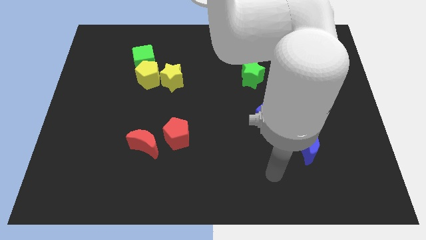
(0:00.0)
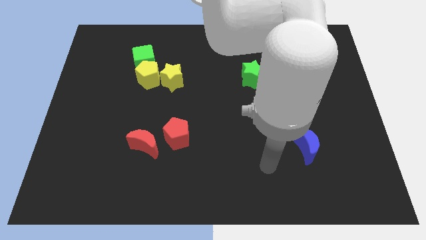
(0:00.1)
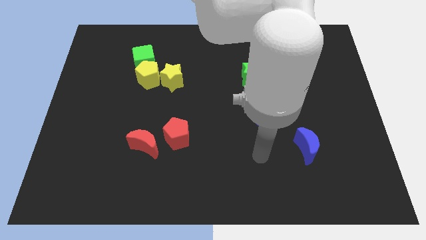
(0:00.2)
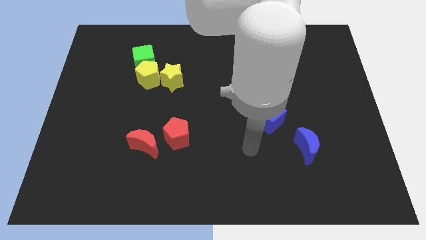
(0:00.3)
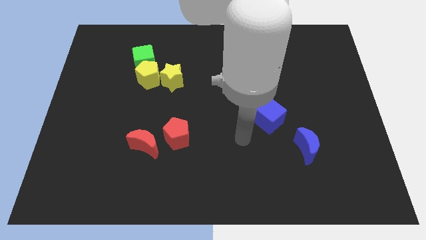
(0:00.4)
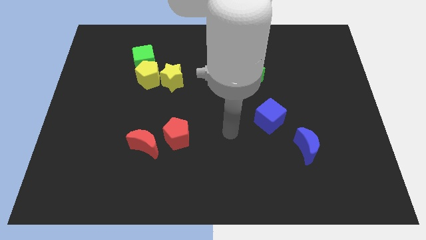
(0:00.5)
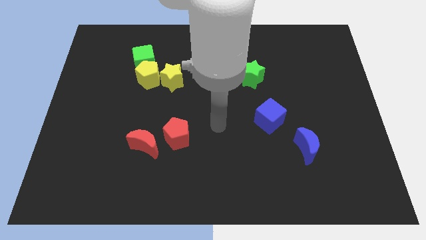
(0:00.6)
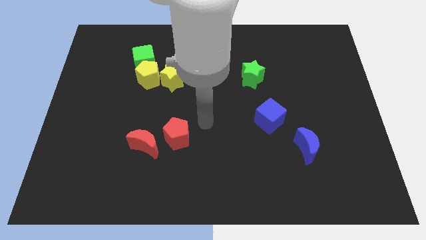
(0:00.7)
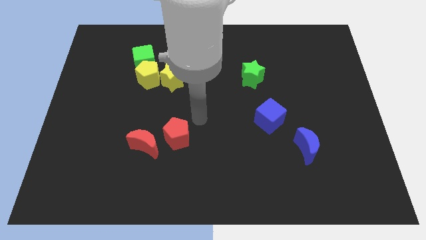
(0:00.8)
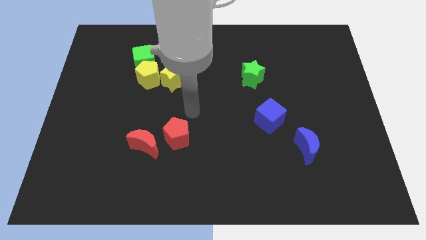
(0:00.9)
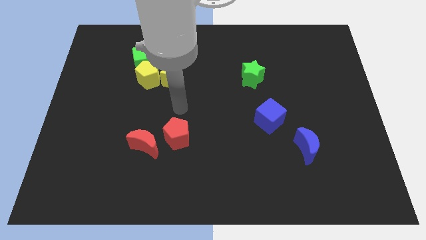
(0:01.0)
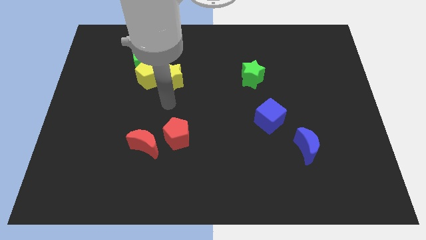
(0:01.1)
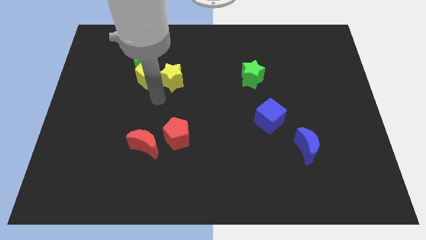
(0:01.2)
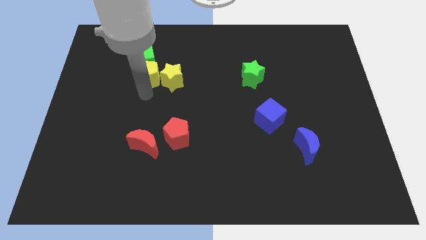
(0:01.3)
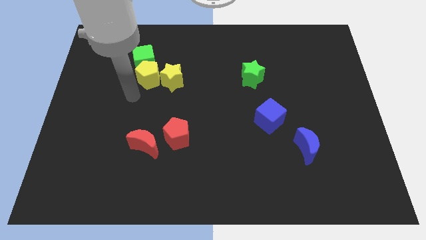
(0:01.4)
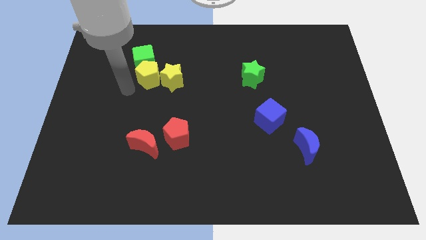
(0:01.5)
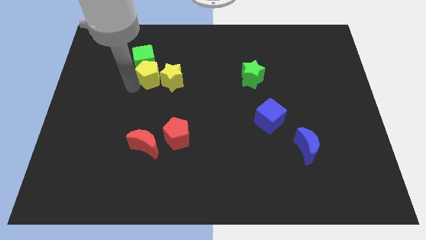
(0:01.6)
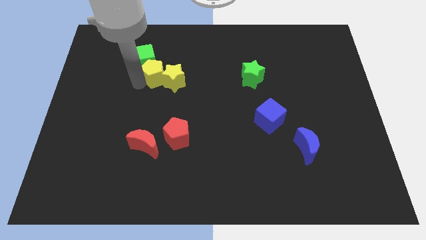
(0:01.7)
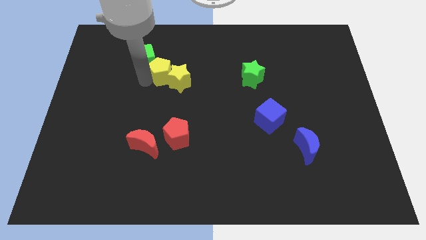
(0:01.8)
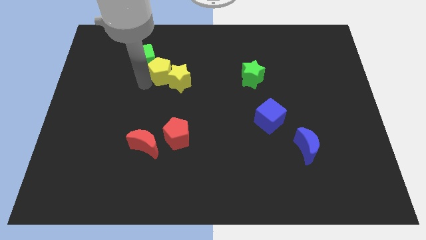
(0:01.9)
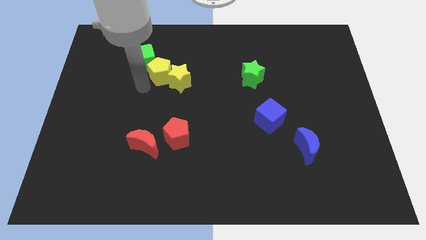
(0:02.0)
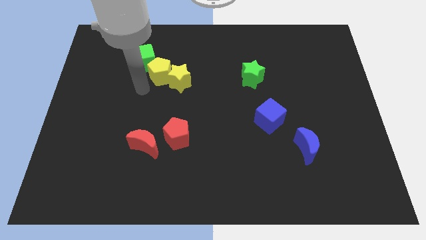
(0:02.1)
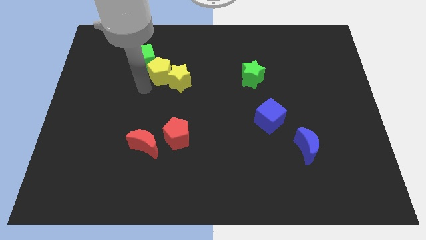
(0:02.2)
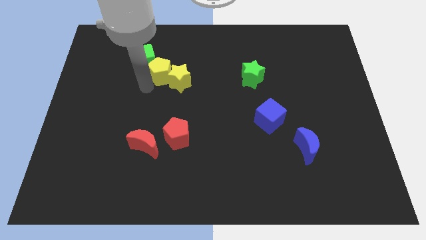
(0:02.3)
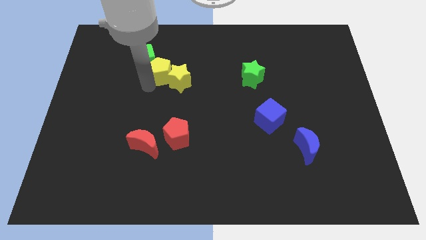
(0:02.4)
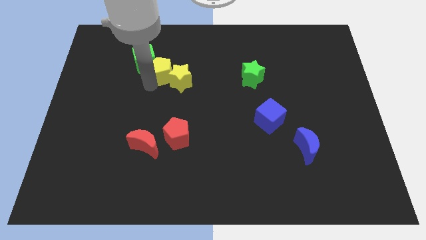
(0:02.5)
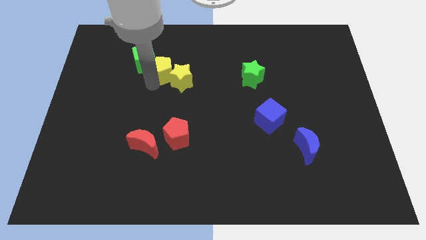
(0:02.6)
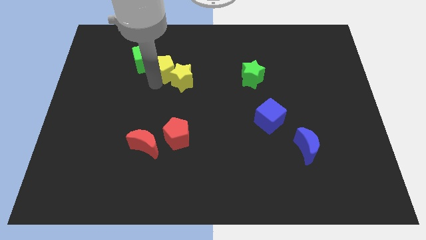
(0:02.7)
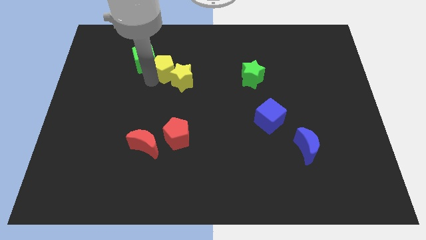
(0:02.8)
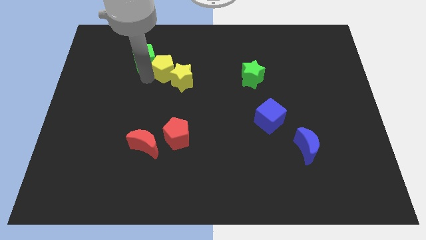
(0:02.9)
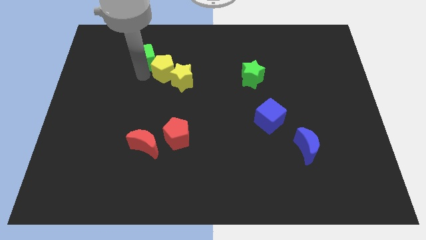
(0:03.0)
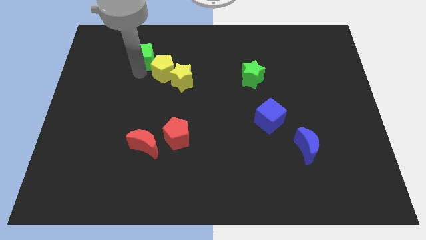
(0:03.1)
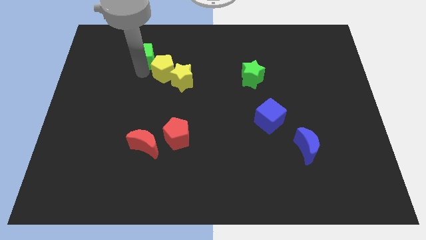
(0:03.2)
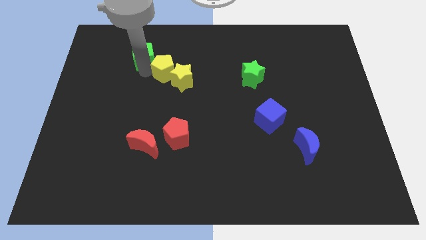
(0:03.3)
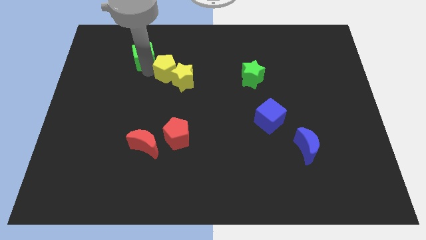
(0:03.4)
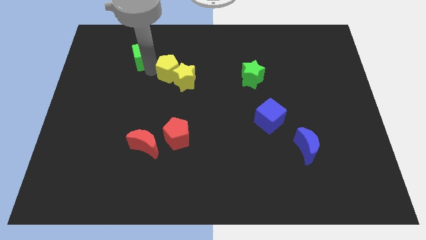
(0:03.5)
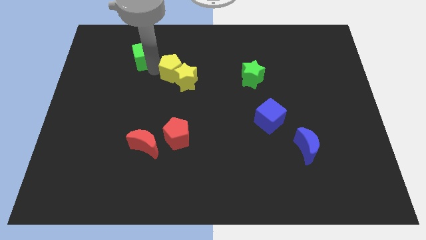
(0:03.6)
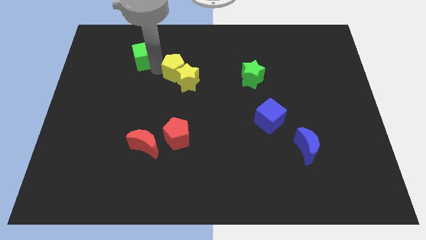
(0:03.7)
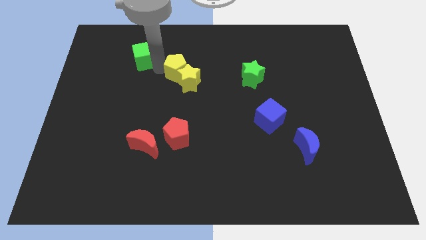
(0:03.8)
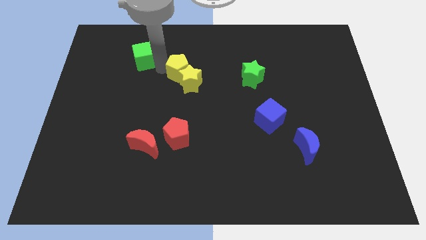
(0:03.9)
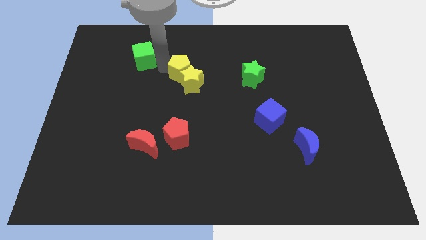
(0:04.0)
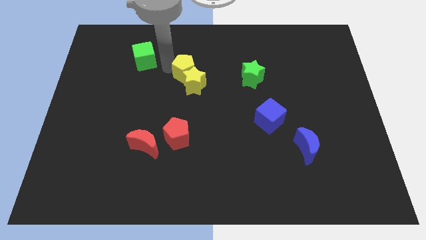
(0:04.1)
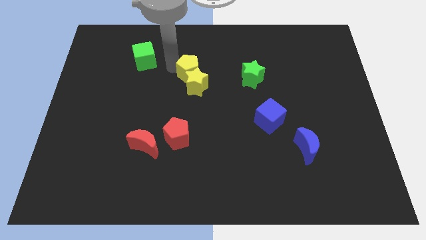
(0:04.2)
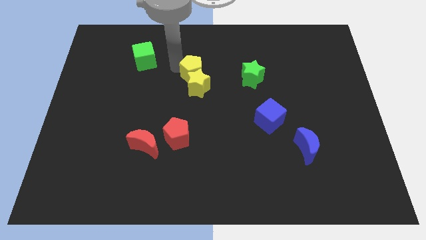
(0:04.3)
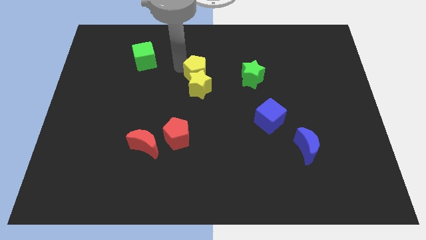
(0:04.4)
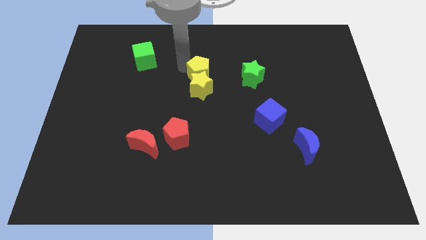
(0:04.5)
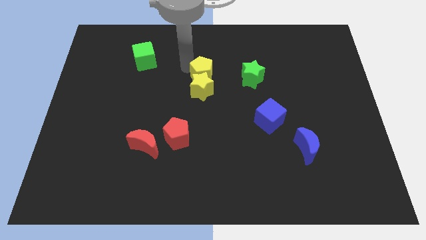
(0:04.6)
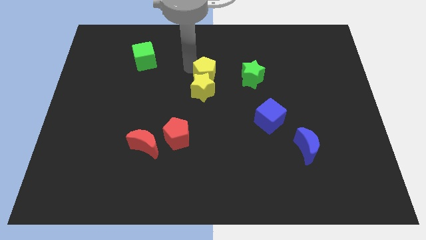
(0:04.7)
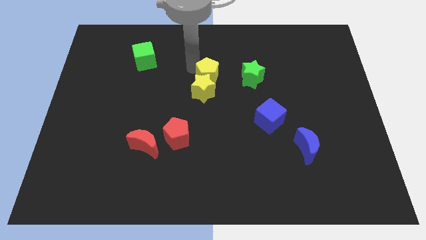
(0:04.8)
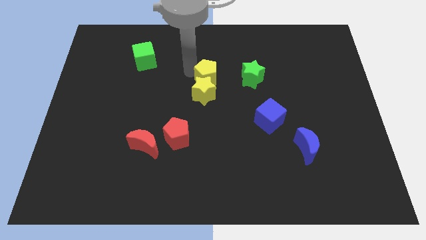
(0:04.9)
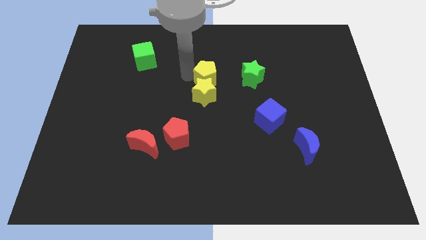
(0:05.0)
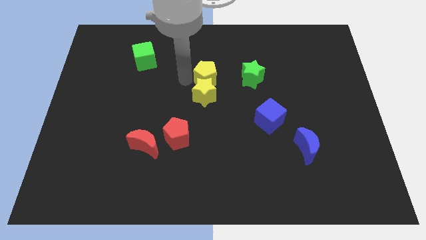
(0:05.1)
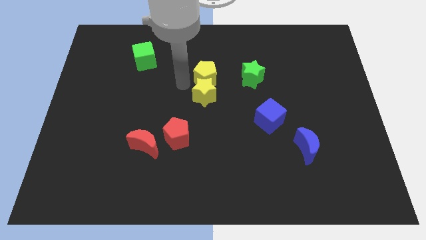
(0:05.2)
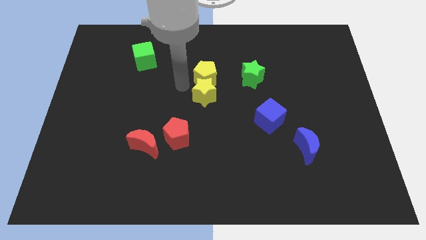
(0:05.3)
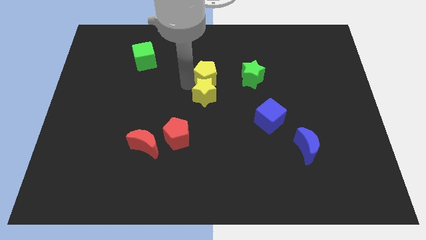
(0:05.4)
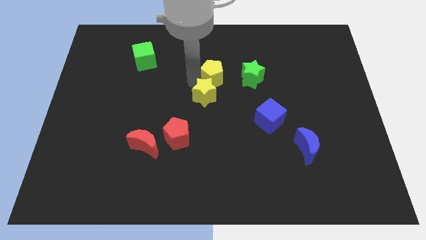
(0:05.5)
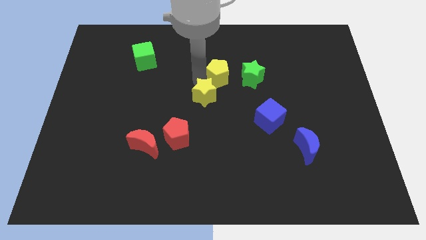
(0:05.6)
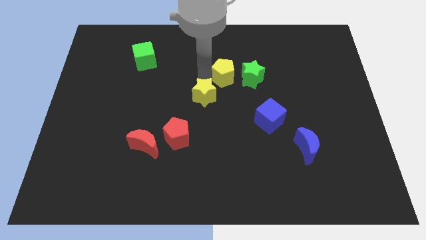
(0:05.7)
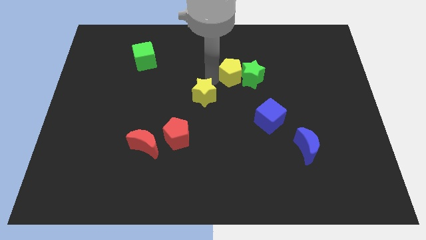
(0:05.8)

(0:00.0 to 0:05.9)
move the yellow pentagon to the right

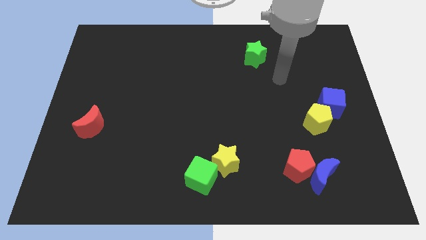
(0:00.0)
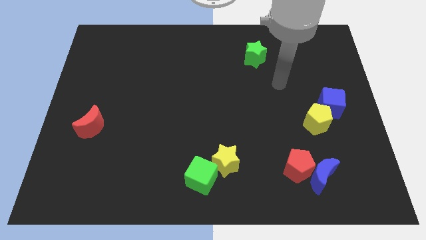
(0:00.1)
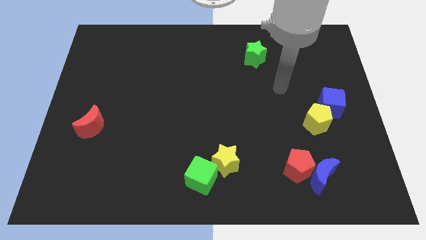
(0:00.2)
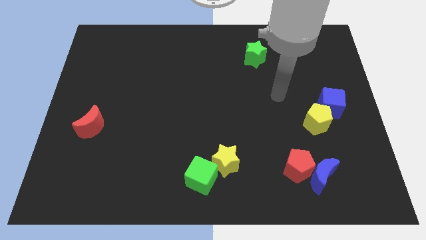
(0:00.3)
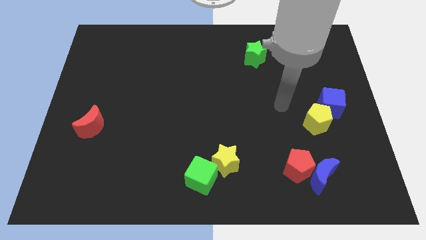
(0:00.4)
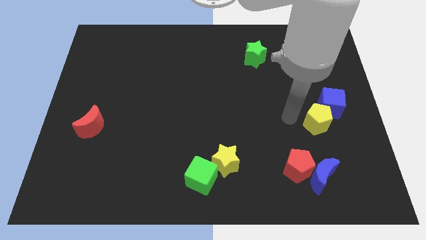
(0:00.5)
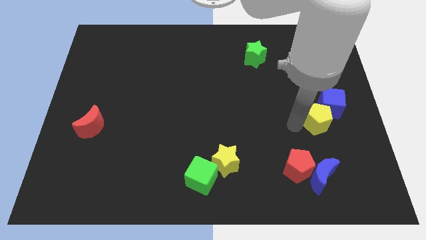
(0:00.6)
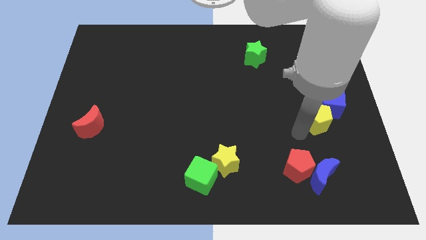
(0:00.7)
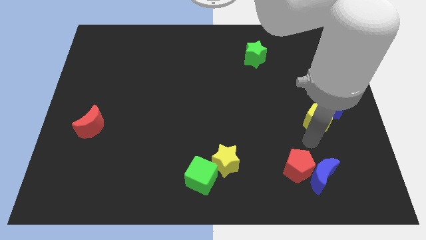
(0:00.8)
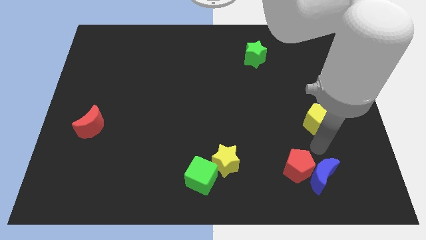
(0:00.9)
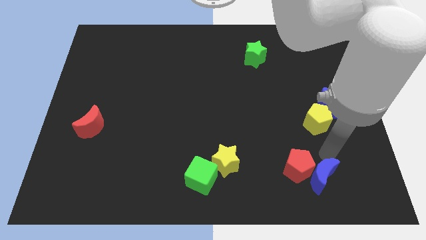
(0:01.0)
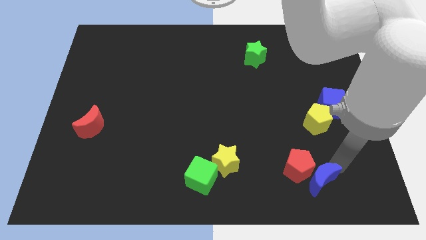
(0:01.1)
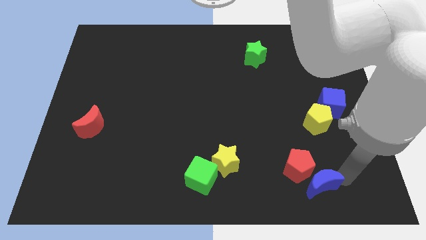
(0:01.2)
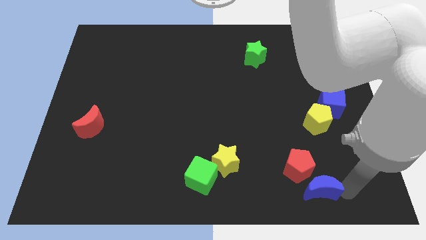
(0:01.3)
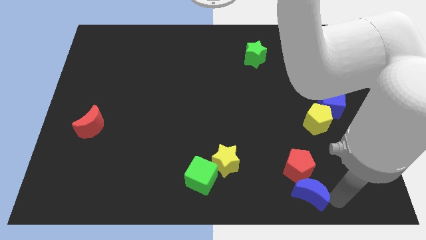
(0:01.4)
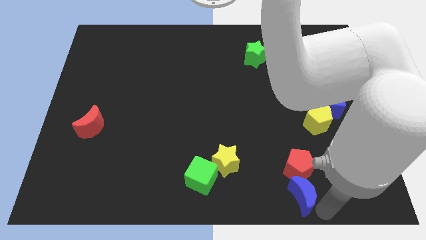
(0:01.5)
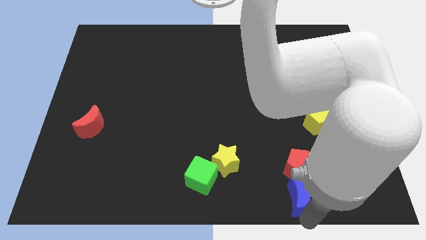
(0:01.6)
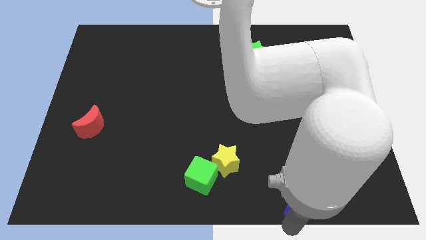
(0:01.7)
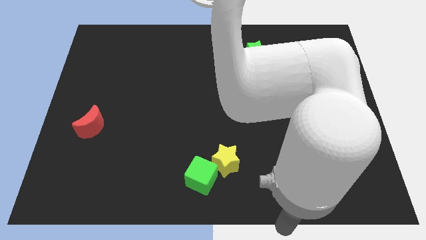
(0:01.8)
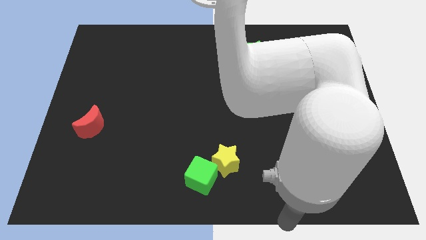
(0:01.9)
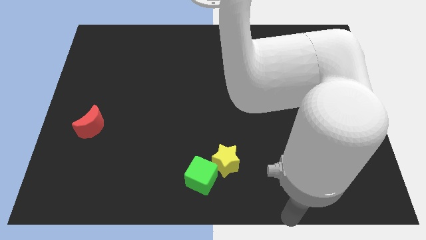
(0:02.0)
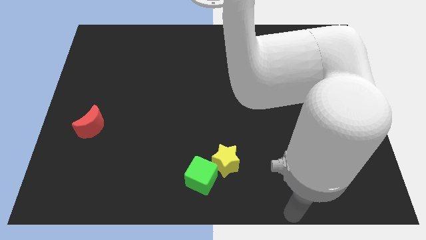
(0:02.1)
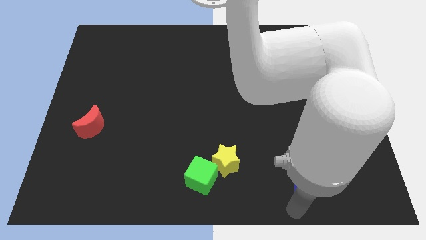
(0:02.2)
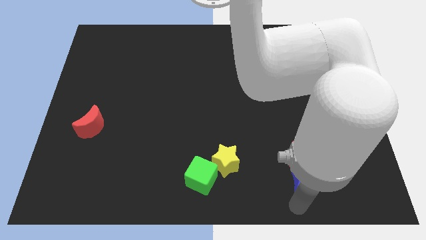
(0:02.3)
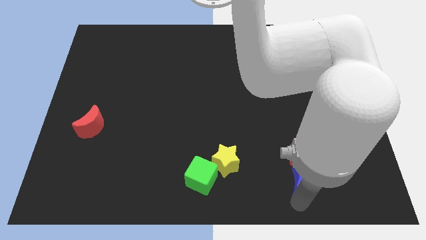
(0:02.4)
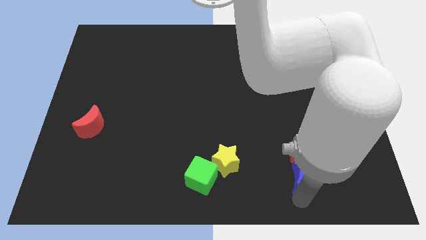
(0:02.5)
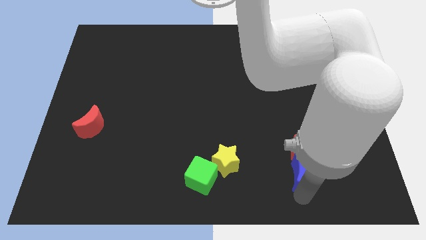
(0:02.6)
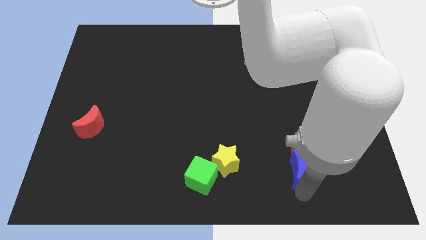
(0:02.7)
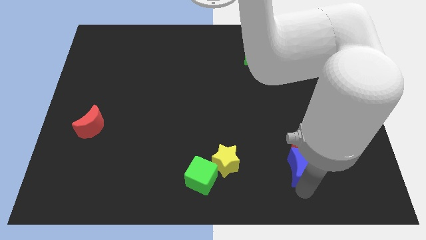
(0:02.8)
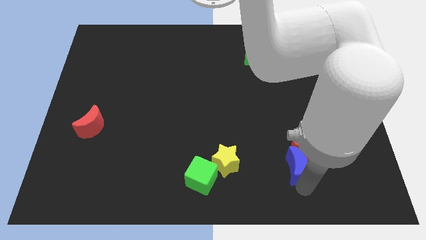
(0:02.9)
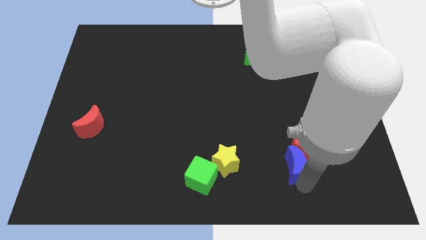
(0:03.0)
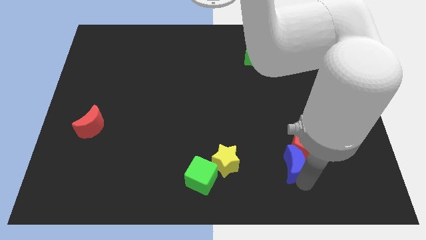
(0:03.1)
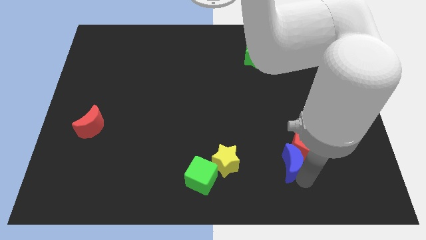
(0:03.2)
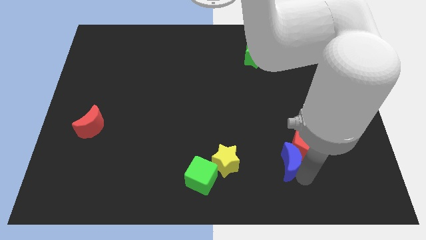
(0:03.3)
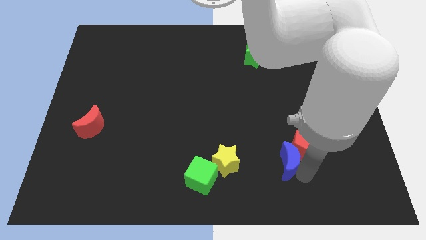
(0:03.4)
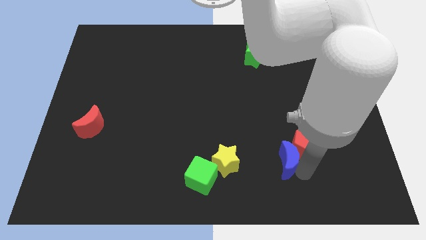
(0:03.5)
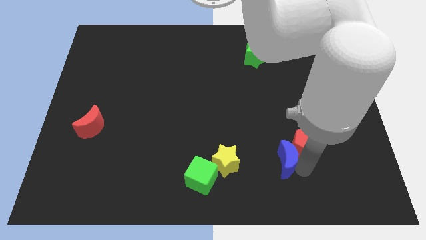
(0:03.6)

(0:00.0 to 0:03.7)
move the blue moon a little bit upwards and to the left diagonally
